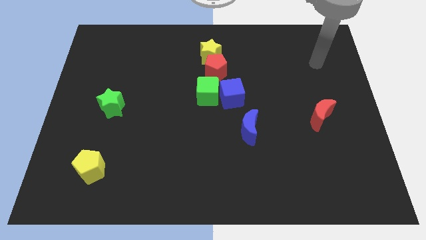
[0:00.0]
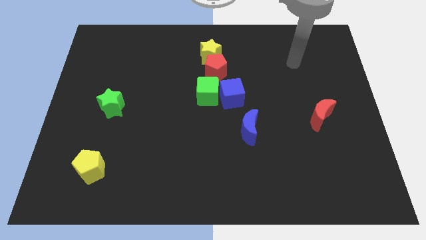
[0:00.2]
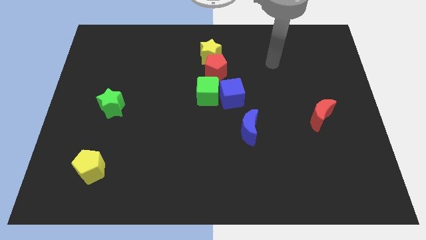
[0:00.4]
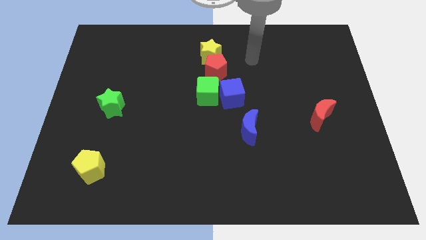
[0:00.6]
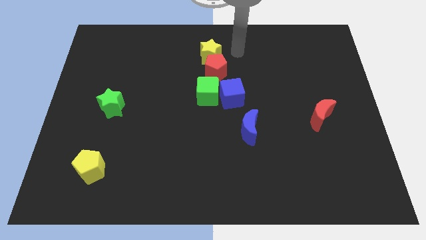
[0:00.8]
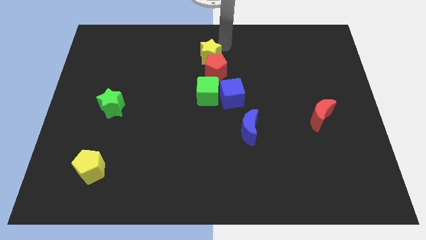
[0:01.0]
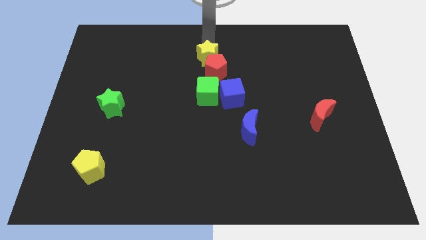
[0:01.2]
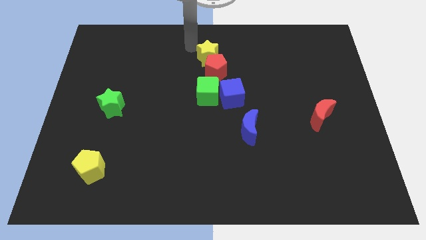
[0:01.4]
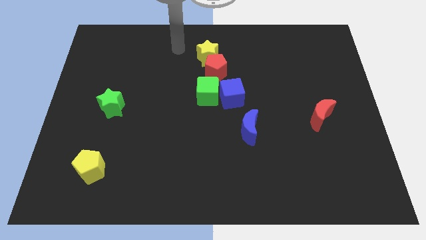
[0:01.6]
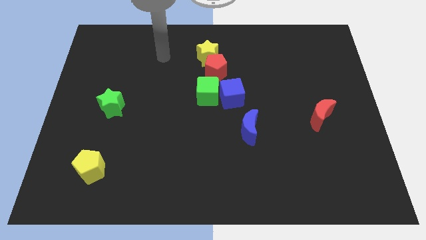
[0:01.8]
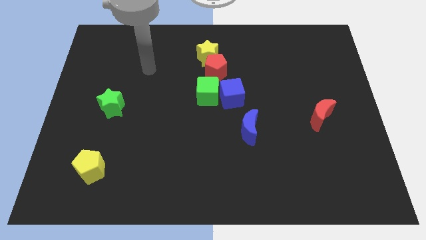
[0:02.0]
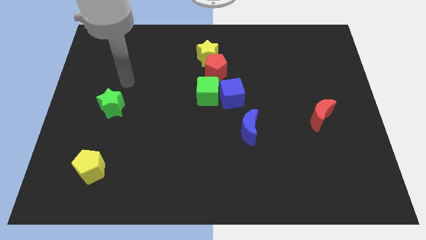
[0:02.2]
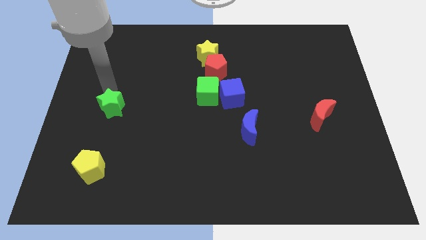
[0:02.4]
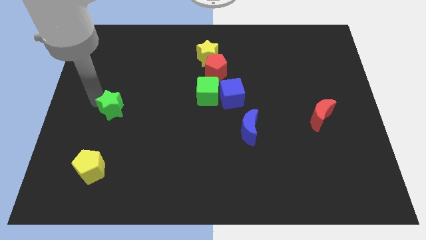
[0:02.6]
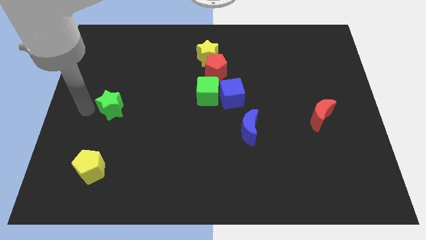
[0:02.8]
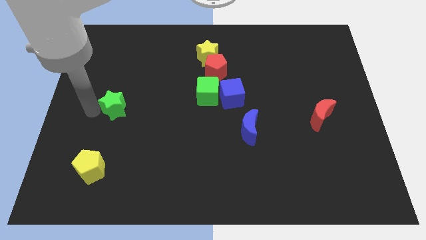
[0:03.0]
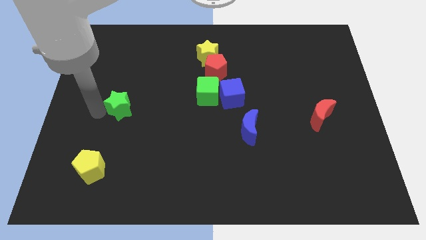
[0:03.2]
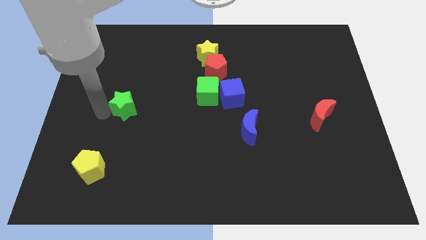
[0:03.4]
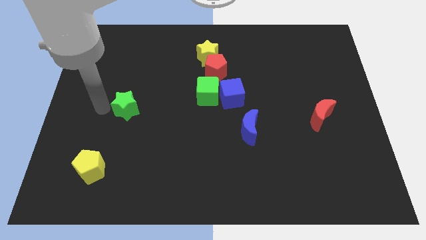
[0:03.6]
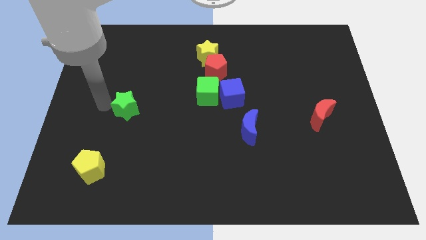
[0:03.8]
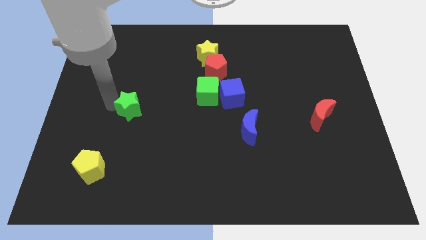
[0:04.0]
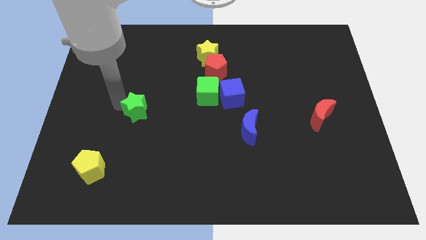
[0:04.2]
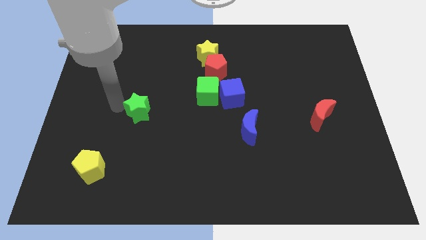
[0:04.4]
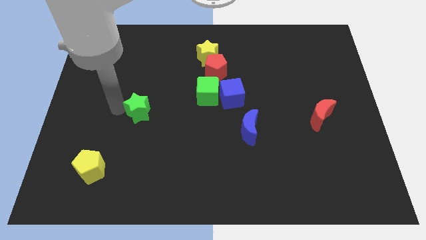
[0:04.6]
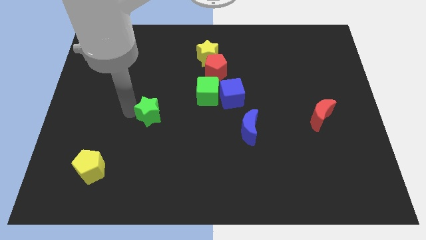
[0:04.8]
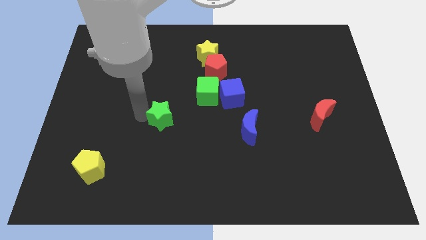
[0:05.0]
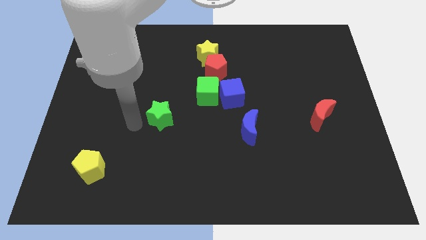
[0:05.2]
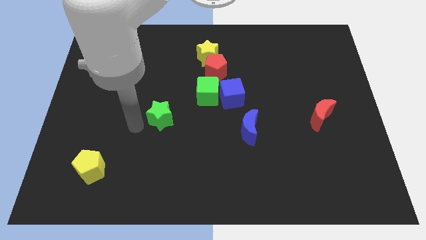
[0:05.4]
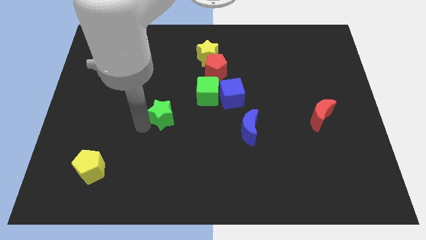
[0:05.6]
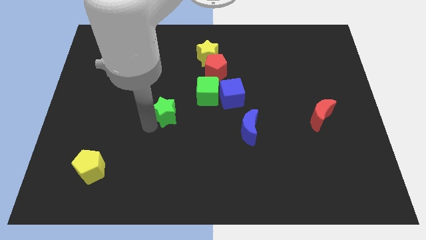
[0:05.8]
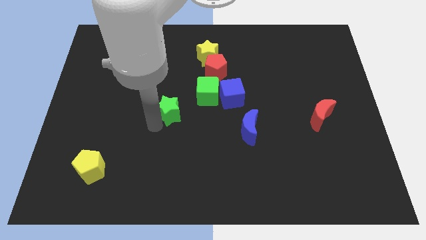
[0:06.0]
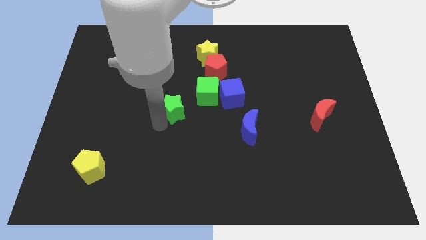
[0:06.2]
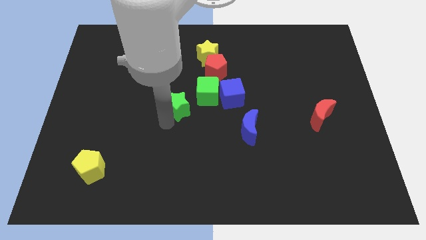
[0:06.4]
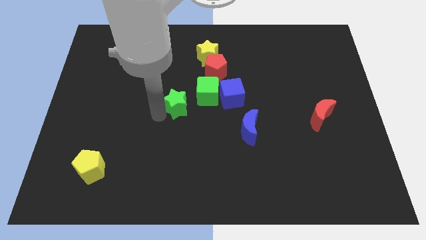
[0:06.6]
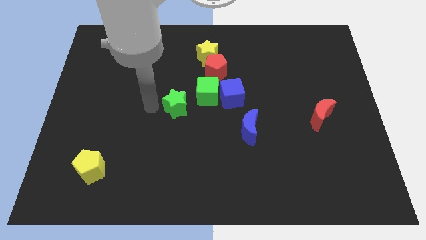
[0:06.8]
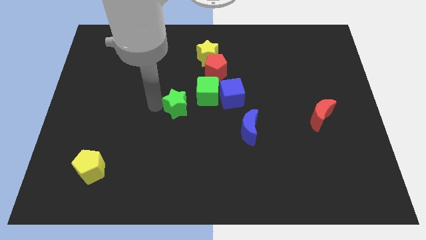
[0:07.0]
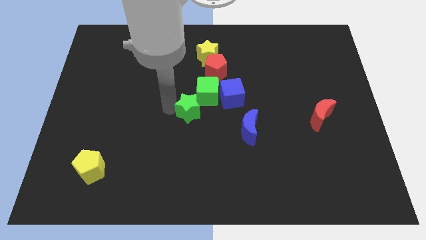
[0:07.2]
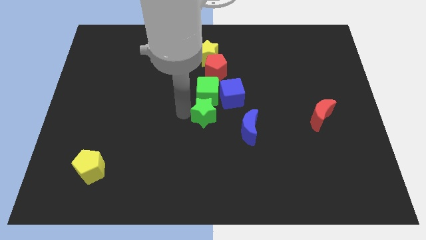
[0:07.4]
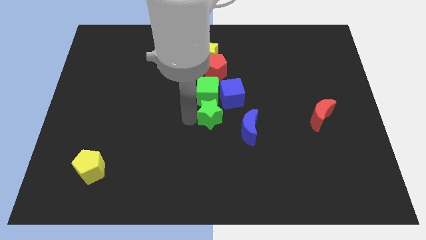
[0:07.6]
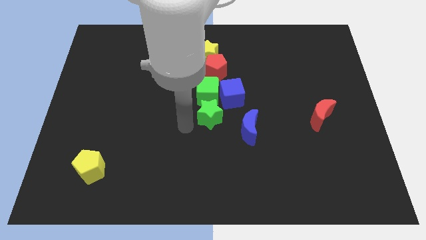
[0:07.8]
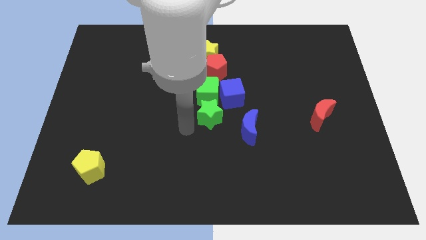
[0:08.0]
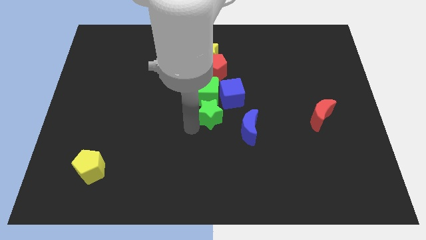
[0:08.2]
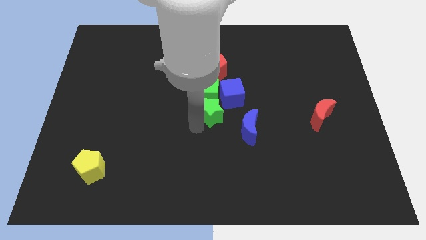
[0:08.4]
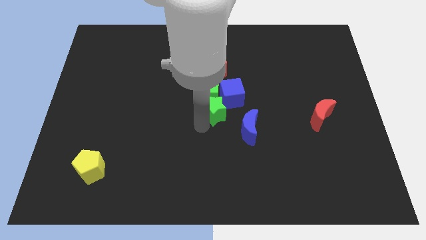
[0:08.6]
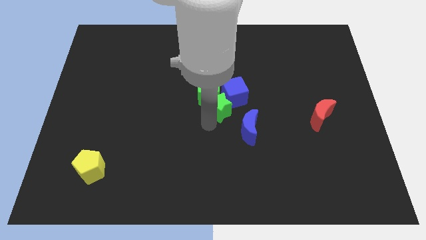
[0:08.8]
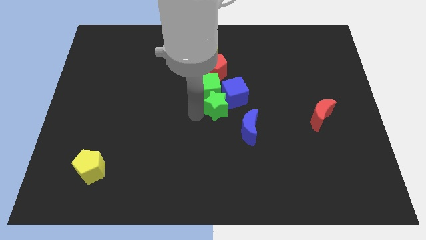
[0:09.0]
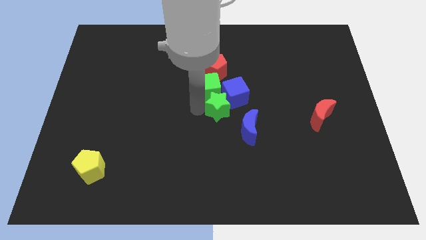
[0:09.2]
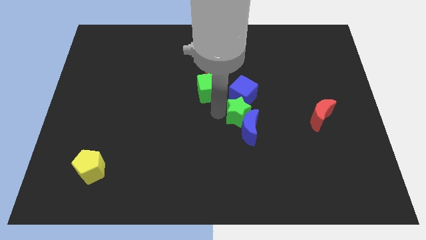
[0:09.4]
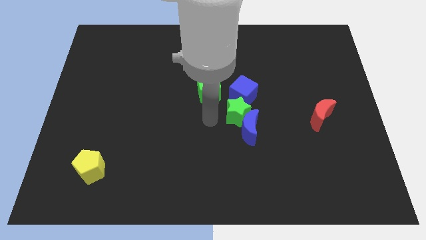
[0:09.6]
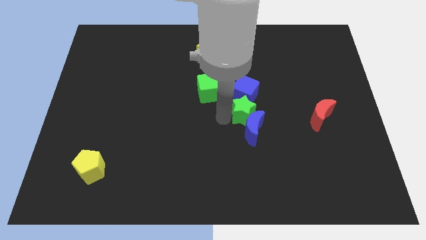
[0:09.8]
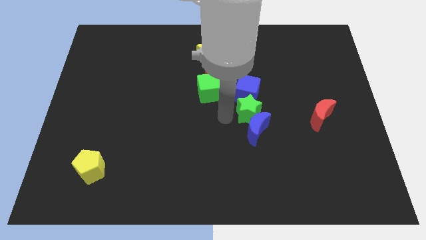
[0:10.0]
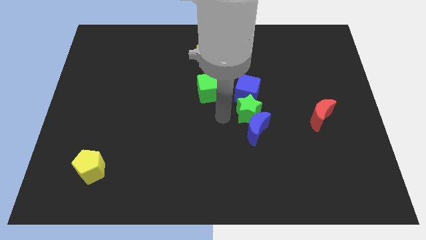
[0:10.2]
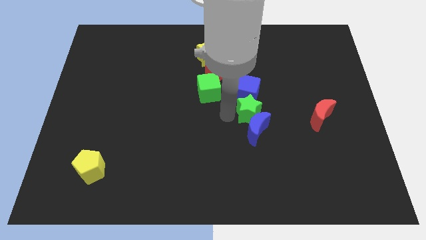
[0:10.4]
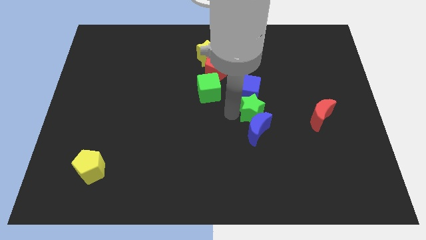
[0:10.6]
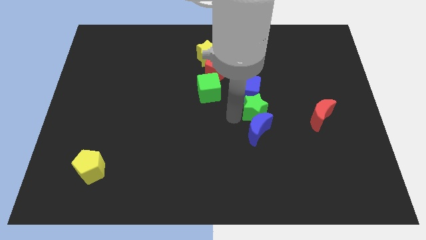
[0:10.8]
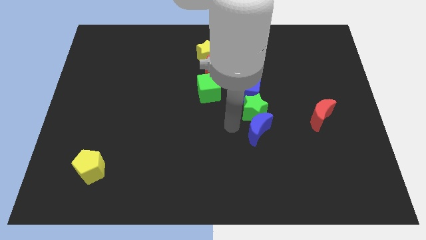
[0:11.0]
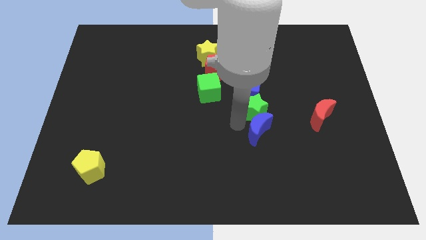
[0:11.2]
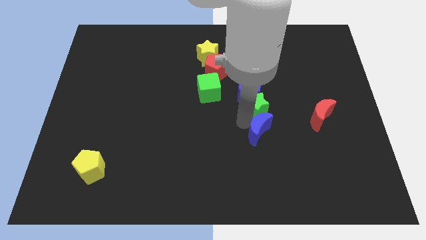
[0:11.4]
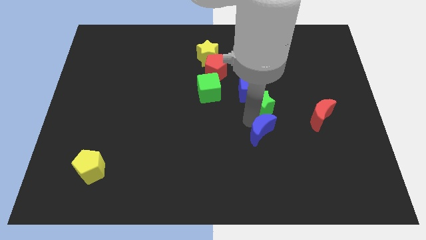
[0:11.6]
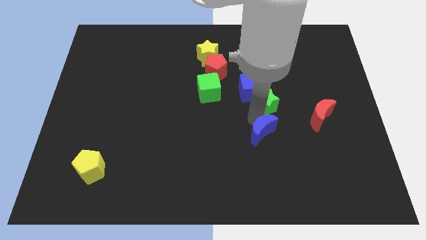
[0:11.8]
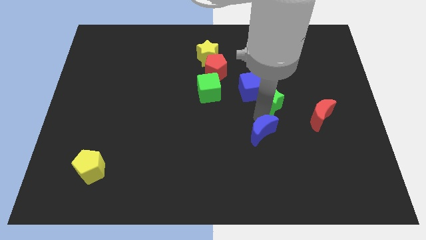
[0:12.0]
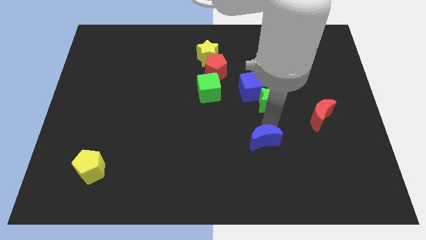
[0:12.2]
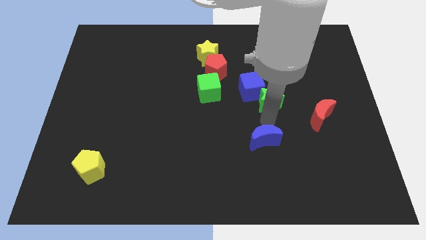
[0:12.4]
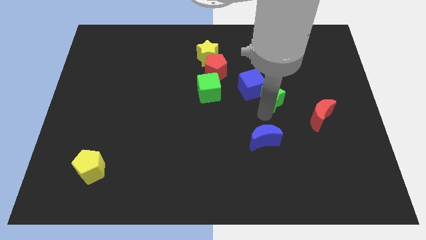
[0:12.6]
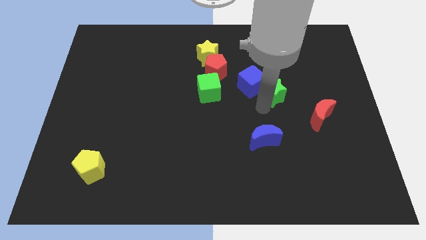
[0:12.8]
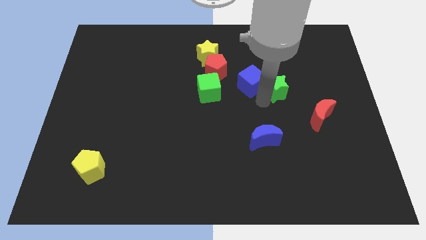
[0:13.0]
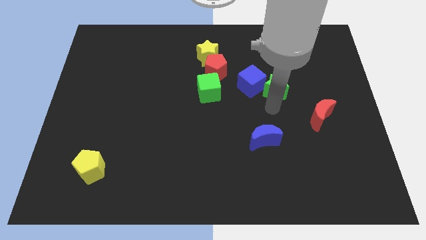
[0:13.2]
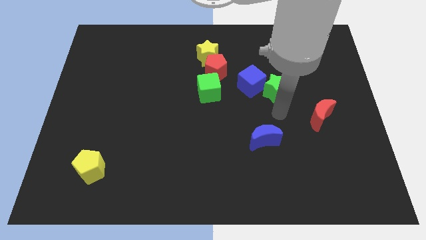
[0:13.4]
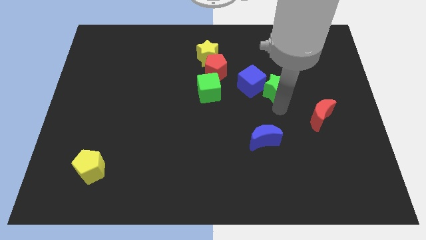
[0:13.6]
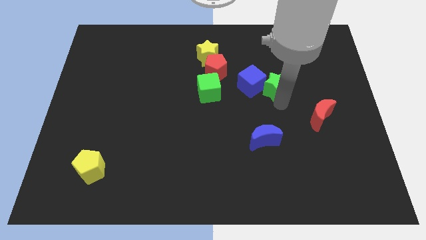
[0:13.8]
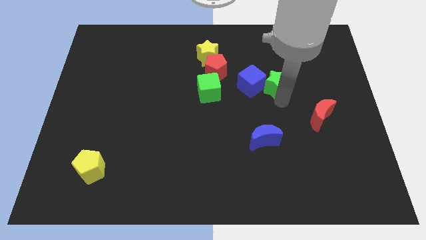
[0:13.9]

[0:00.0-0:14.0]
push the green star to the top right of the blue cube
